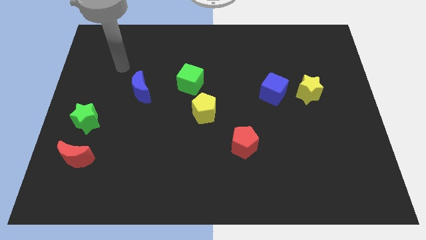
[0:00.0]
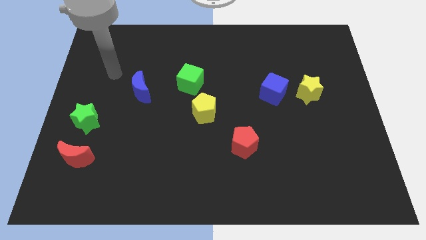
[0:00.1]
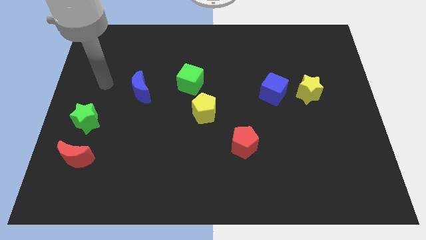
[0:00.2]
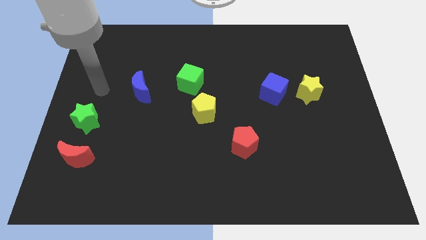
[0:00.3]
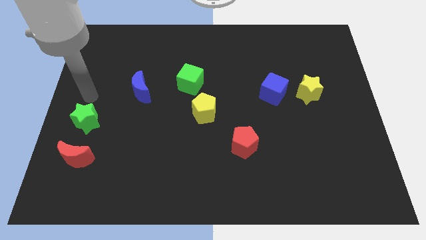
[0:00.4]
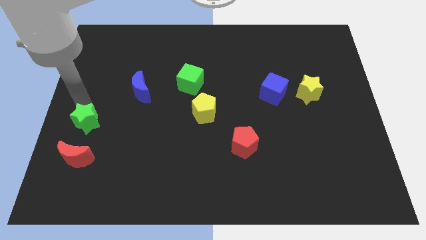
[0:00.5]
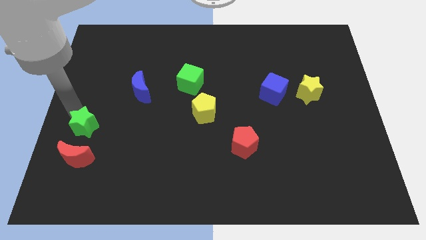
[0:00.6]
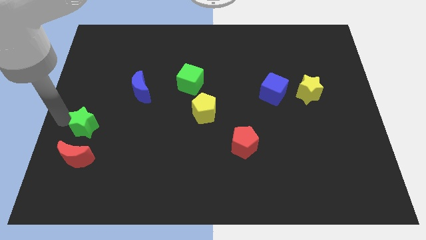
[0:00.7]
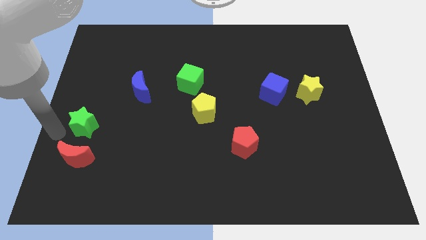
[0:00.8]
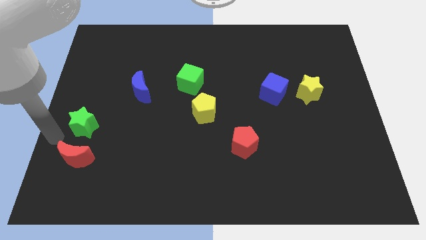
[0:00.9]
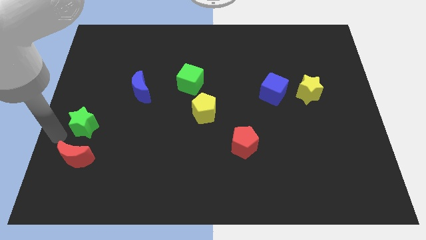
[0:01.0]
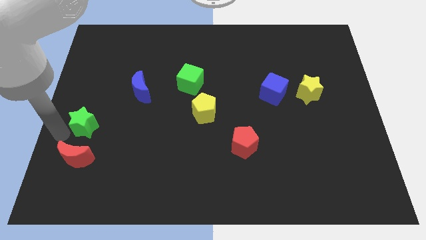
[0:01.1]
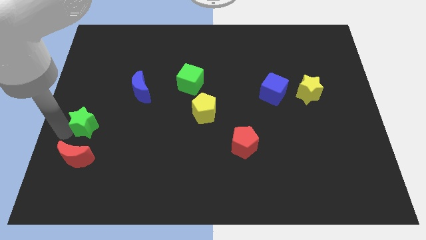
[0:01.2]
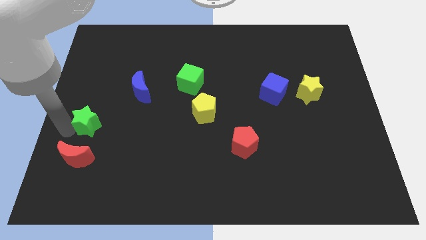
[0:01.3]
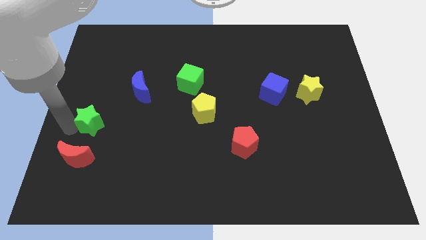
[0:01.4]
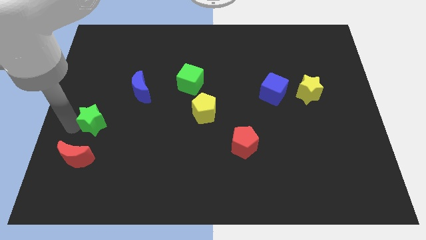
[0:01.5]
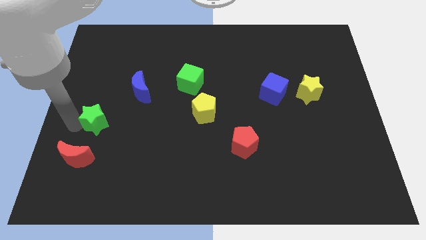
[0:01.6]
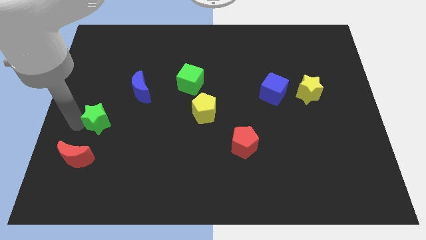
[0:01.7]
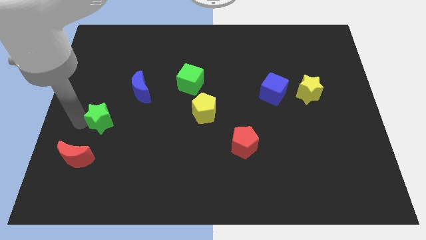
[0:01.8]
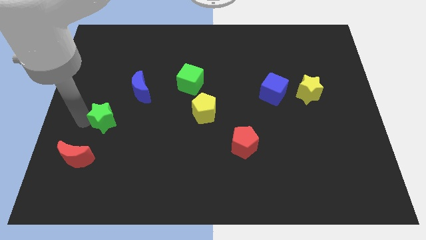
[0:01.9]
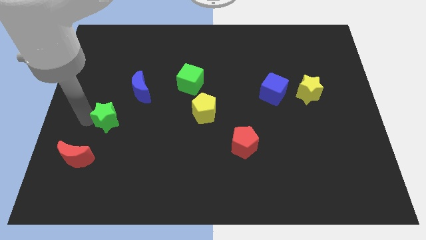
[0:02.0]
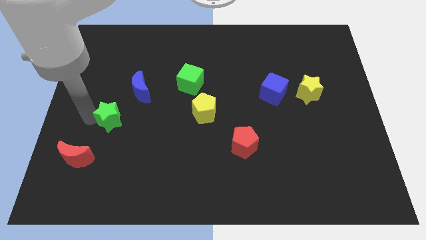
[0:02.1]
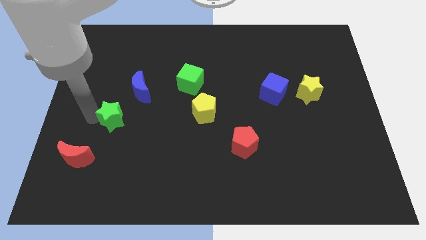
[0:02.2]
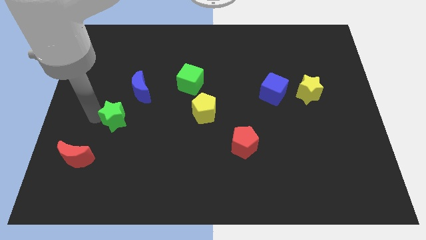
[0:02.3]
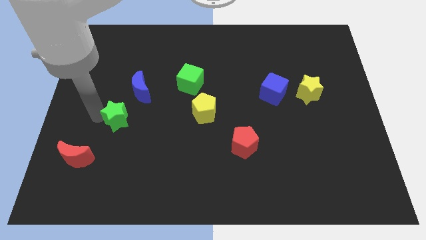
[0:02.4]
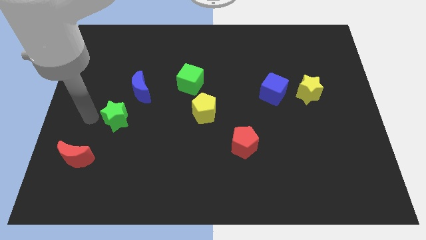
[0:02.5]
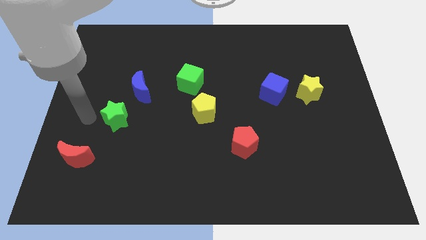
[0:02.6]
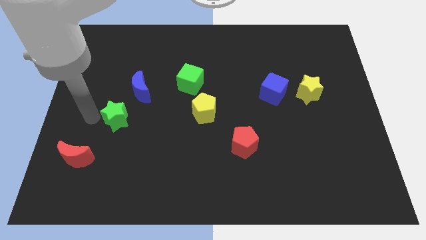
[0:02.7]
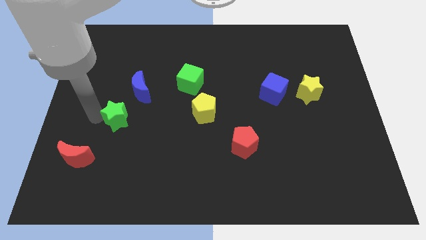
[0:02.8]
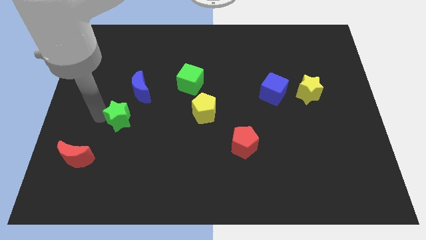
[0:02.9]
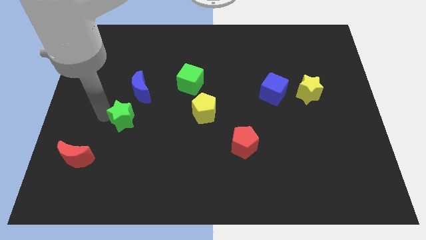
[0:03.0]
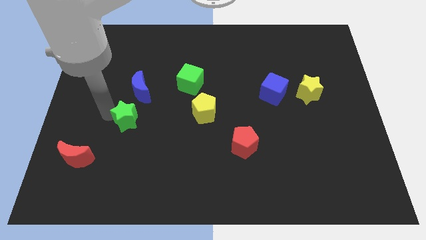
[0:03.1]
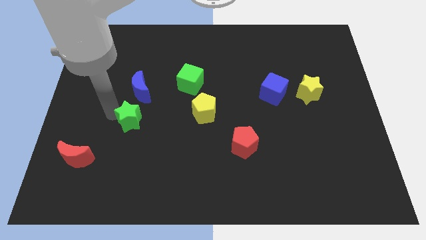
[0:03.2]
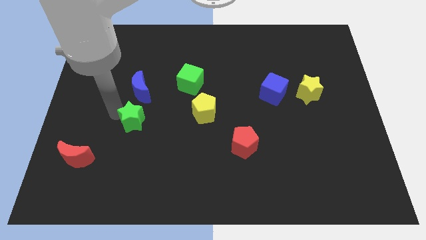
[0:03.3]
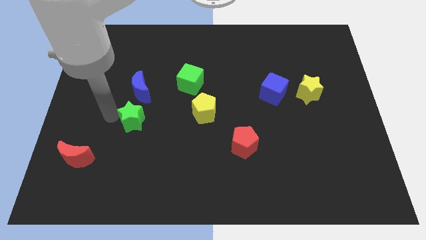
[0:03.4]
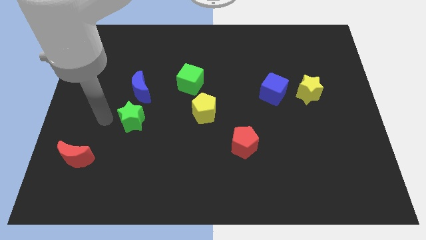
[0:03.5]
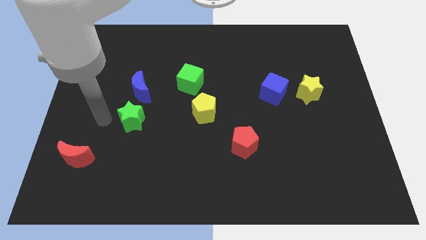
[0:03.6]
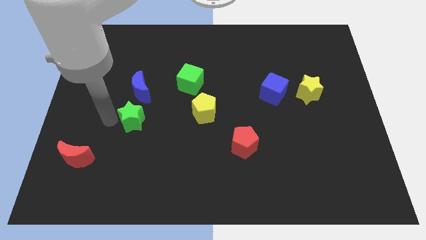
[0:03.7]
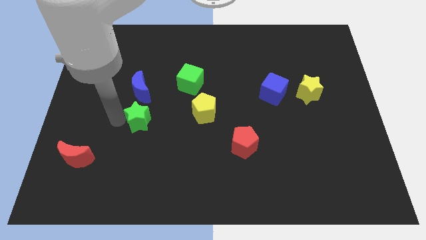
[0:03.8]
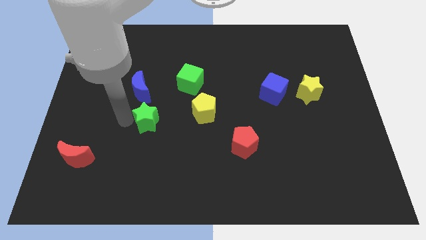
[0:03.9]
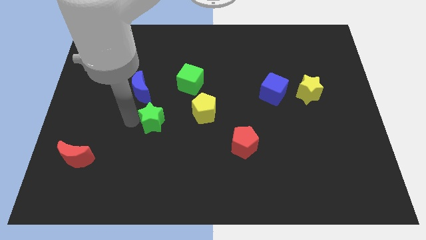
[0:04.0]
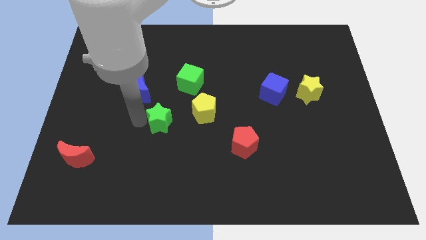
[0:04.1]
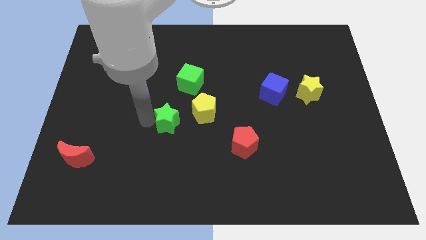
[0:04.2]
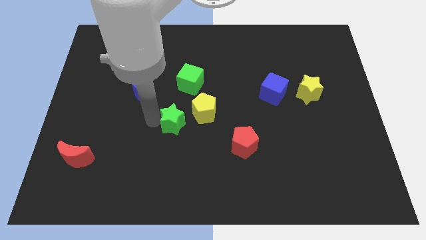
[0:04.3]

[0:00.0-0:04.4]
push the green star right

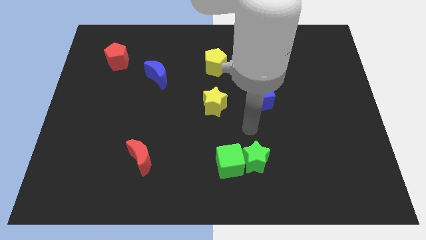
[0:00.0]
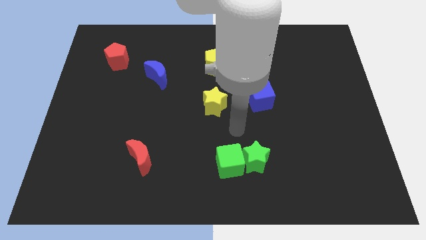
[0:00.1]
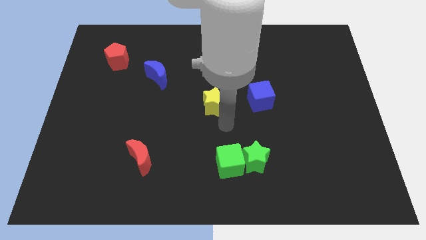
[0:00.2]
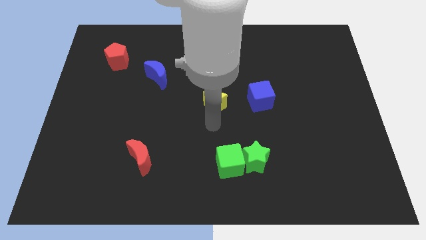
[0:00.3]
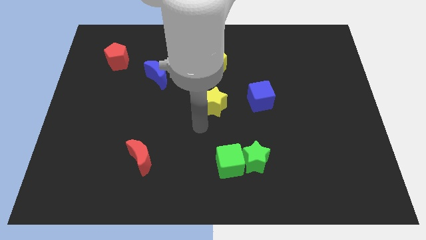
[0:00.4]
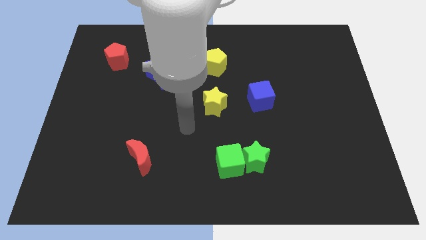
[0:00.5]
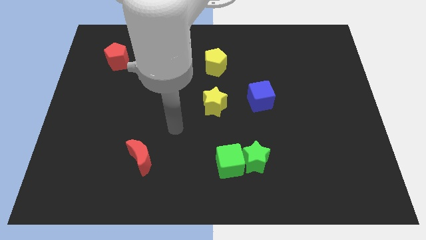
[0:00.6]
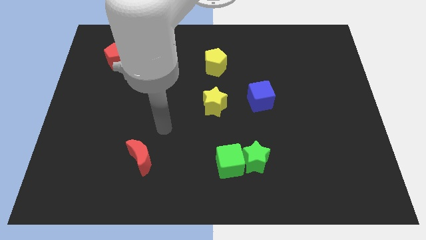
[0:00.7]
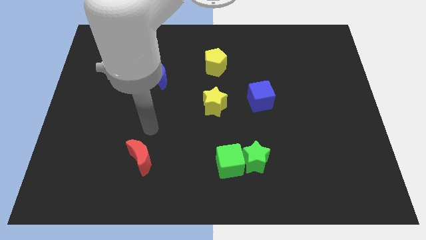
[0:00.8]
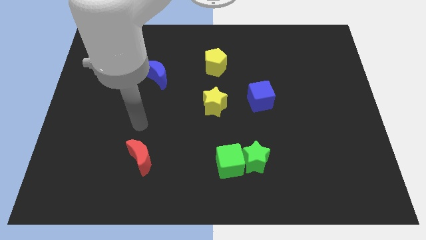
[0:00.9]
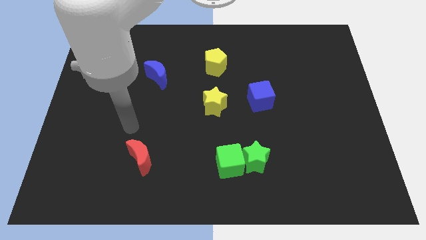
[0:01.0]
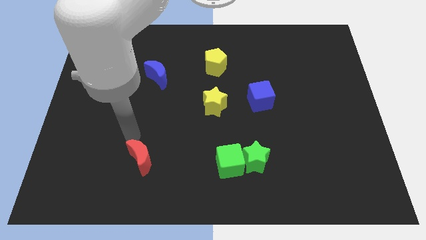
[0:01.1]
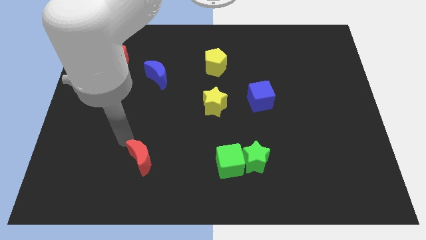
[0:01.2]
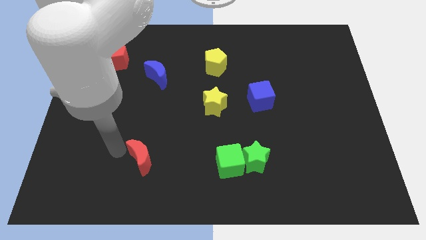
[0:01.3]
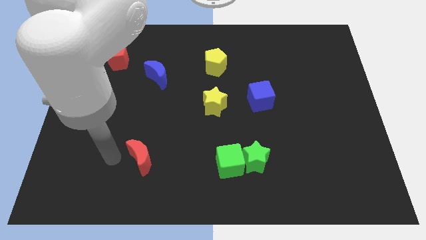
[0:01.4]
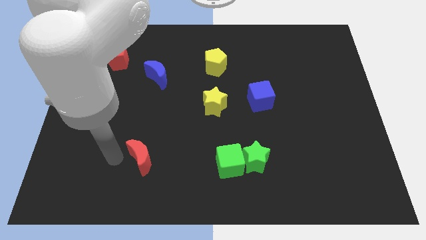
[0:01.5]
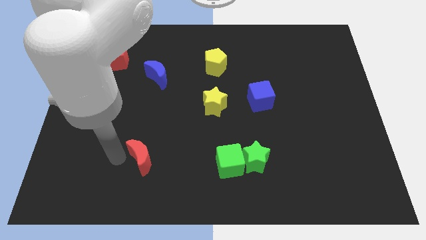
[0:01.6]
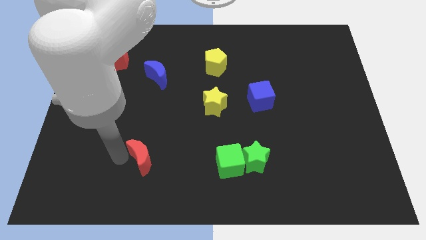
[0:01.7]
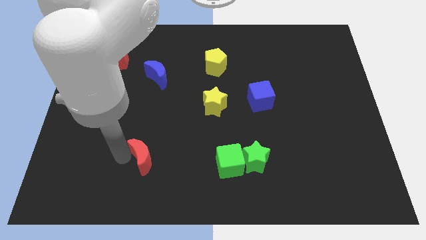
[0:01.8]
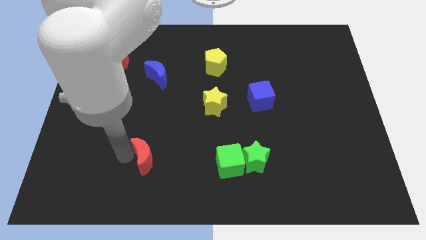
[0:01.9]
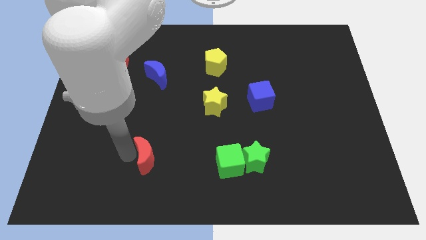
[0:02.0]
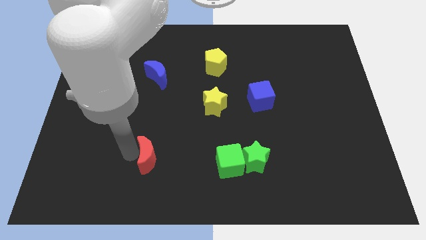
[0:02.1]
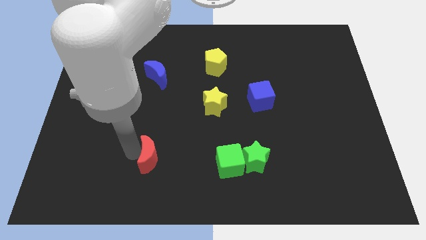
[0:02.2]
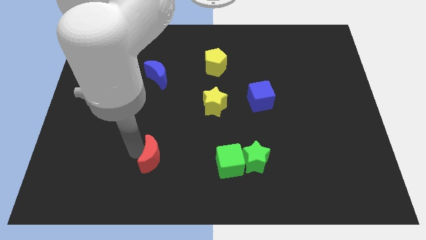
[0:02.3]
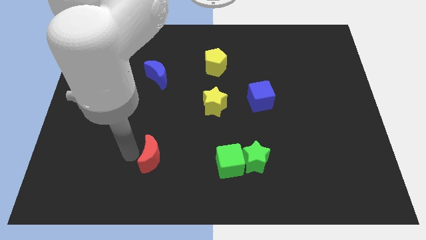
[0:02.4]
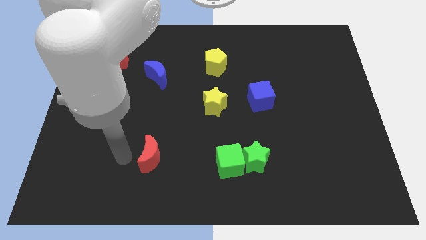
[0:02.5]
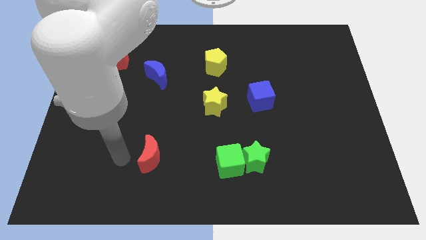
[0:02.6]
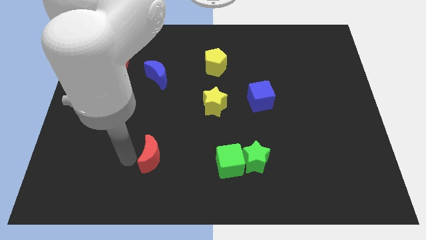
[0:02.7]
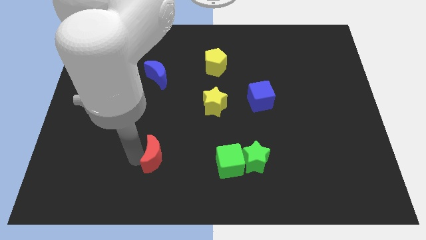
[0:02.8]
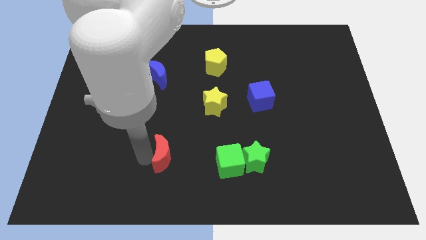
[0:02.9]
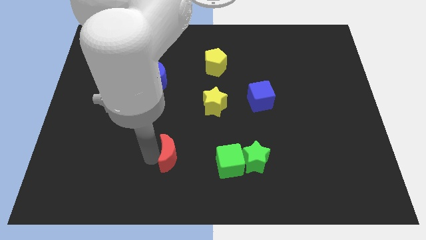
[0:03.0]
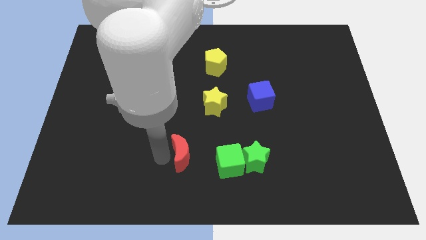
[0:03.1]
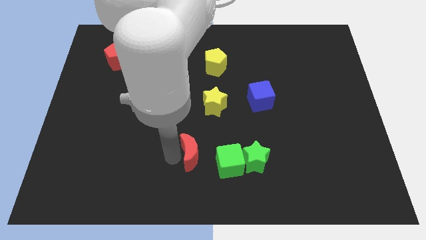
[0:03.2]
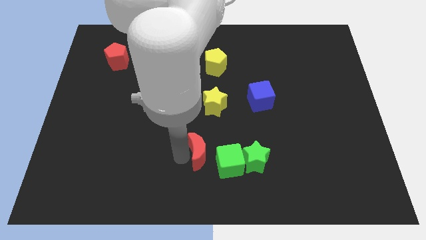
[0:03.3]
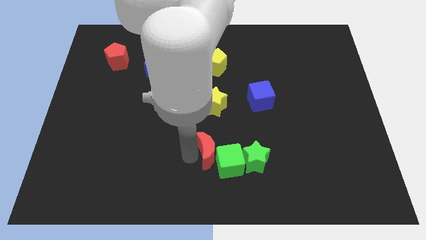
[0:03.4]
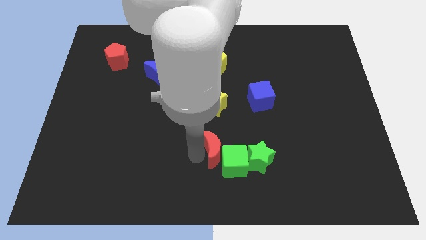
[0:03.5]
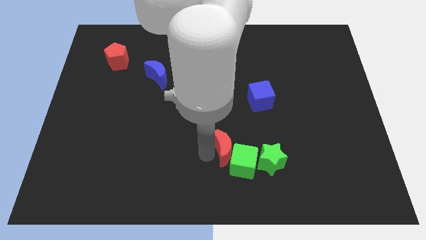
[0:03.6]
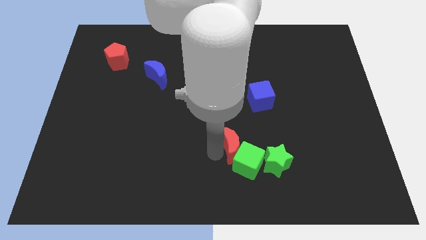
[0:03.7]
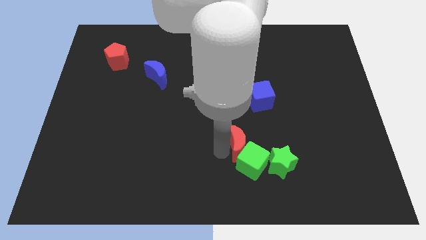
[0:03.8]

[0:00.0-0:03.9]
slide the red moon to the right
